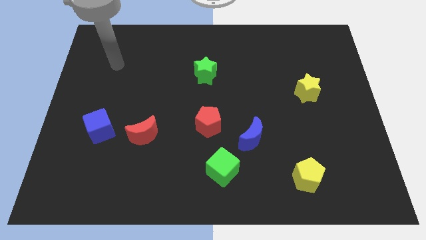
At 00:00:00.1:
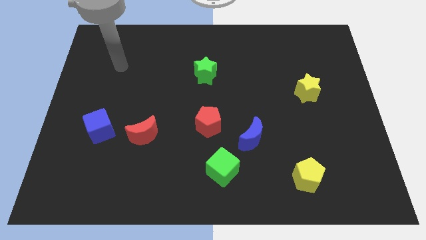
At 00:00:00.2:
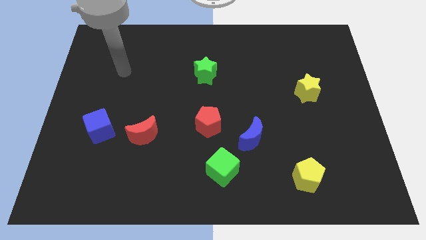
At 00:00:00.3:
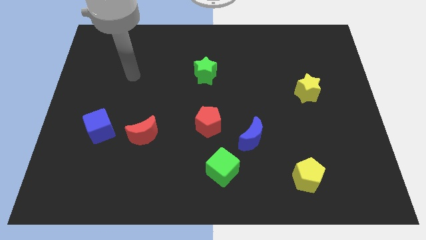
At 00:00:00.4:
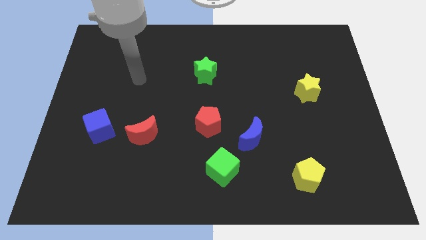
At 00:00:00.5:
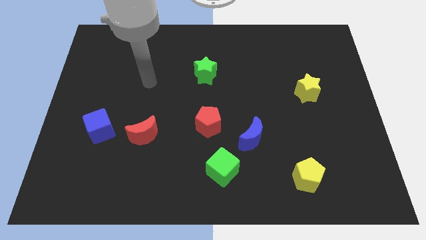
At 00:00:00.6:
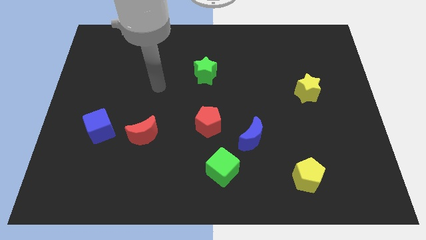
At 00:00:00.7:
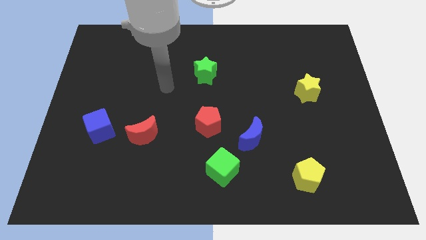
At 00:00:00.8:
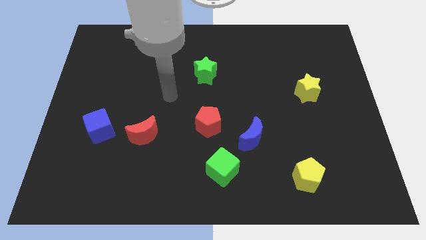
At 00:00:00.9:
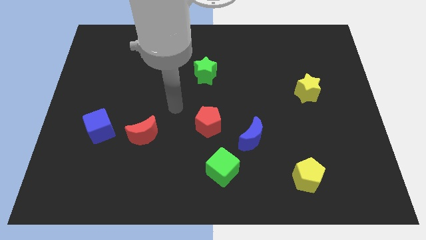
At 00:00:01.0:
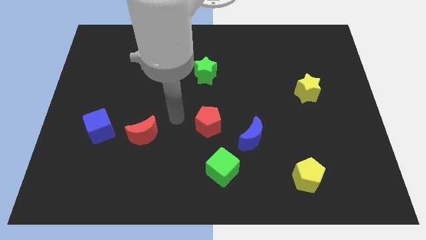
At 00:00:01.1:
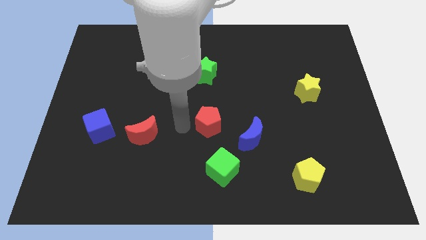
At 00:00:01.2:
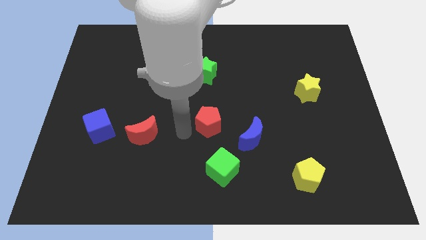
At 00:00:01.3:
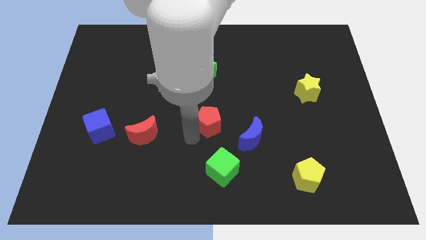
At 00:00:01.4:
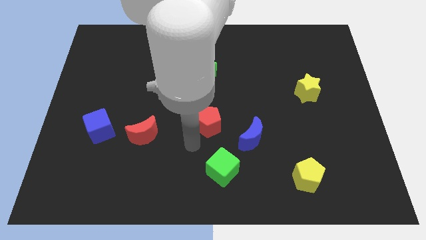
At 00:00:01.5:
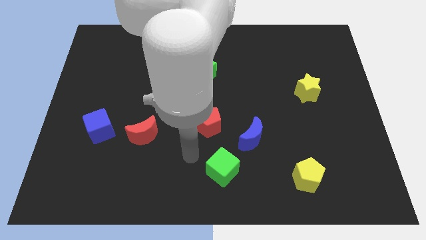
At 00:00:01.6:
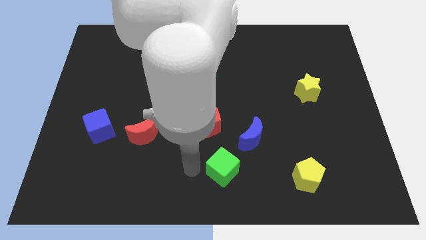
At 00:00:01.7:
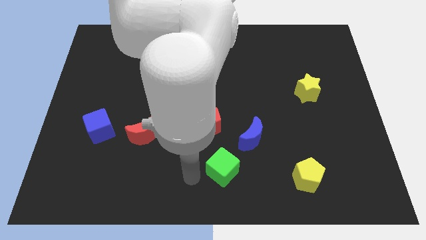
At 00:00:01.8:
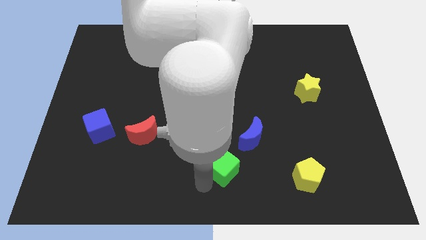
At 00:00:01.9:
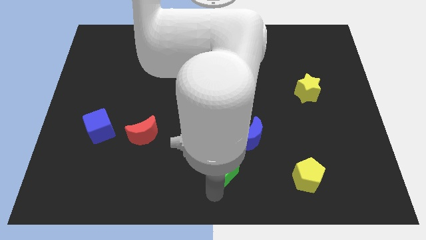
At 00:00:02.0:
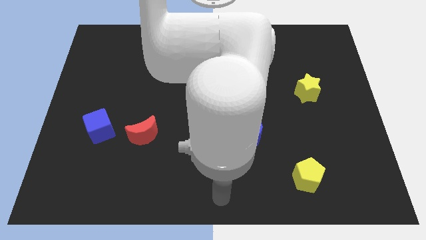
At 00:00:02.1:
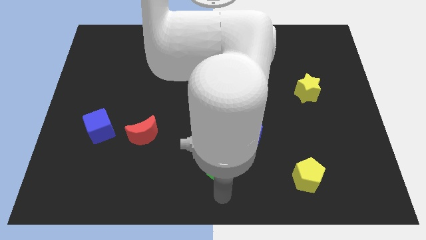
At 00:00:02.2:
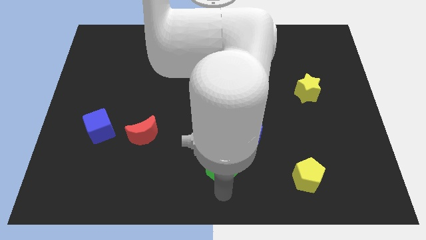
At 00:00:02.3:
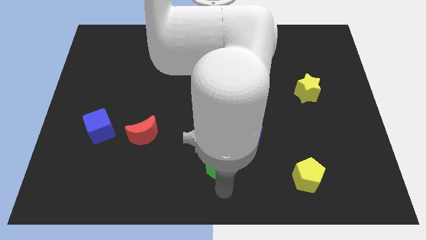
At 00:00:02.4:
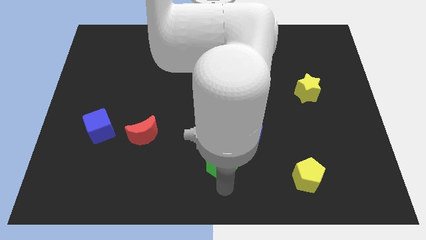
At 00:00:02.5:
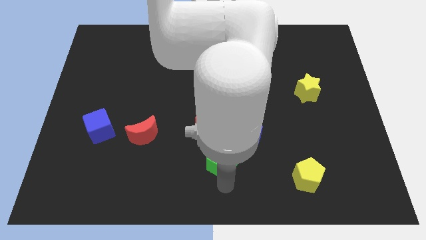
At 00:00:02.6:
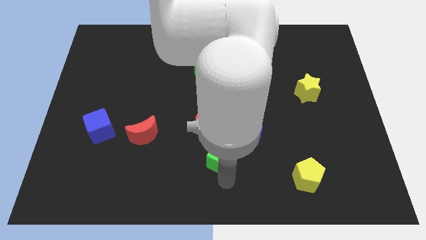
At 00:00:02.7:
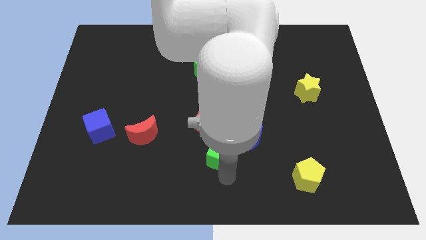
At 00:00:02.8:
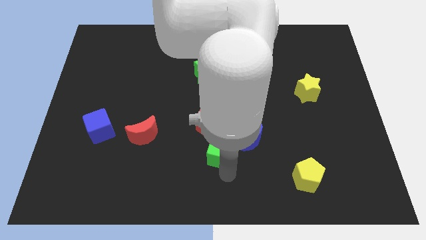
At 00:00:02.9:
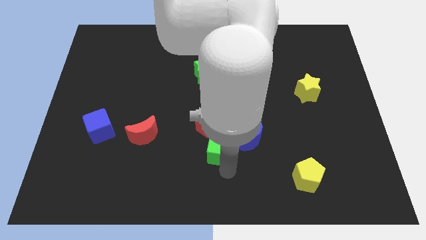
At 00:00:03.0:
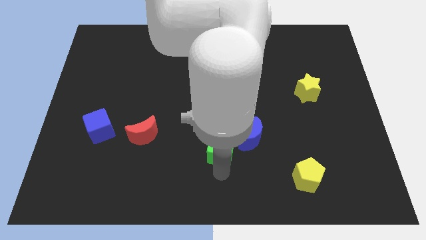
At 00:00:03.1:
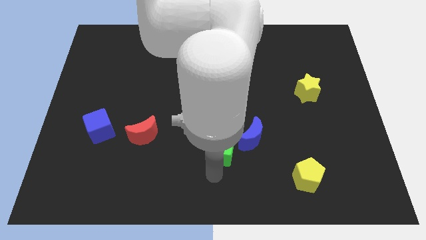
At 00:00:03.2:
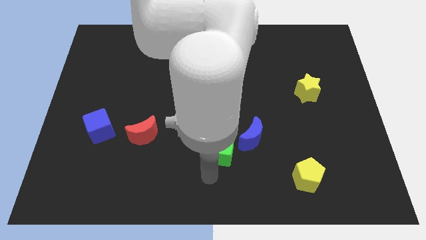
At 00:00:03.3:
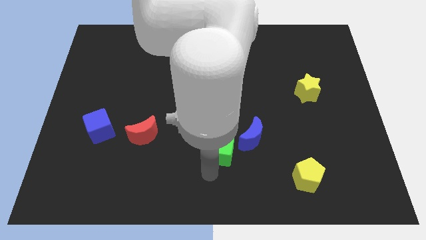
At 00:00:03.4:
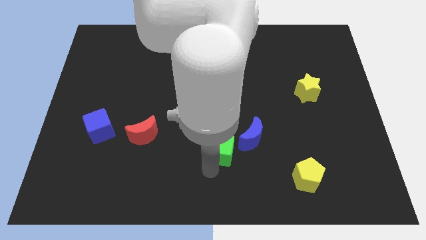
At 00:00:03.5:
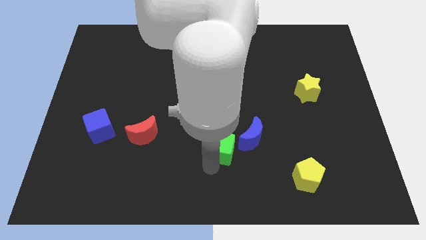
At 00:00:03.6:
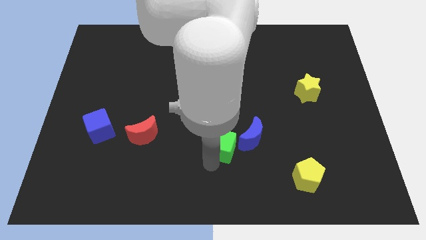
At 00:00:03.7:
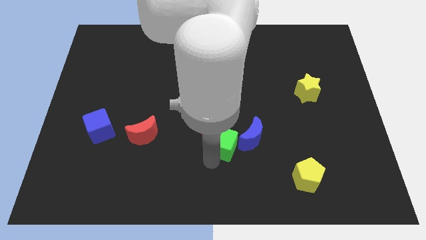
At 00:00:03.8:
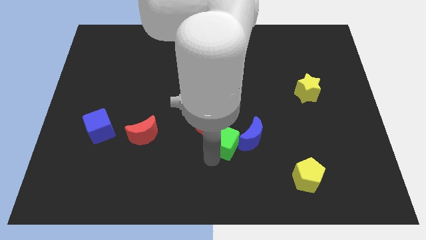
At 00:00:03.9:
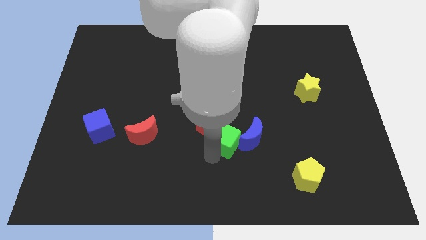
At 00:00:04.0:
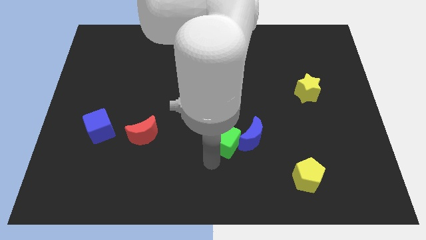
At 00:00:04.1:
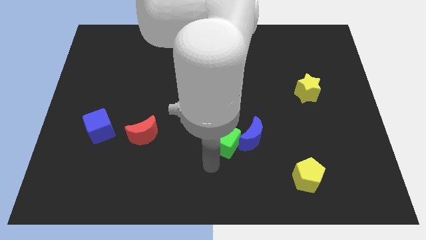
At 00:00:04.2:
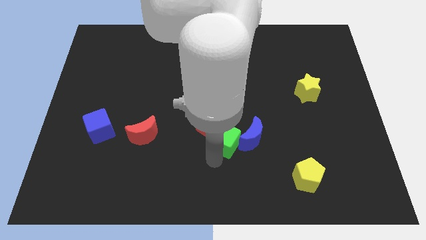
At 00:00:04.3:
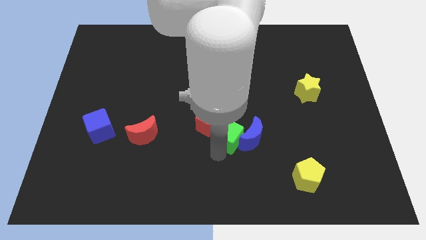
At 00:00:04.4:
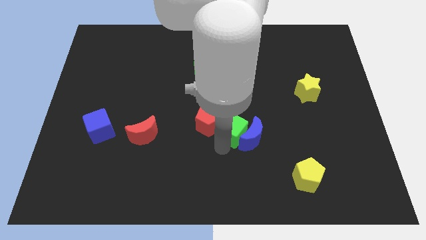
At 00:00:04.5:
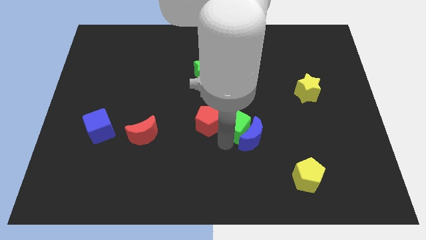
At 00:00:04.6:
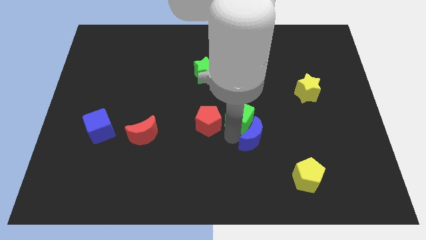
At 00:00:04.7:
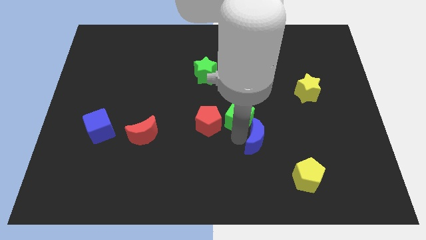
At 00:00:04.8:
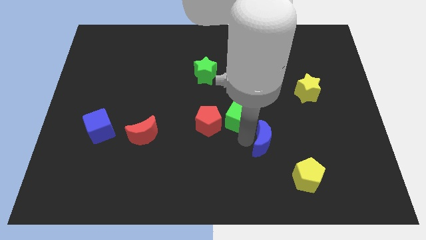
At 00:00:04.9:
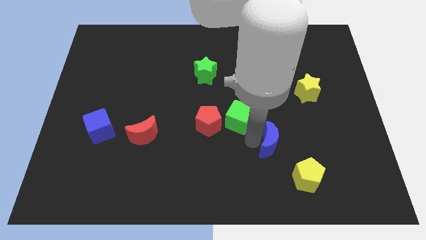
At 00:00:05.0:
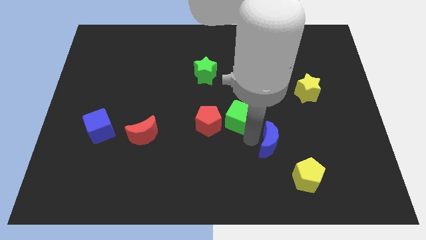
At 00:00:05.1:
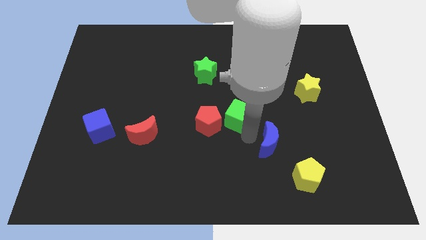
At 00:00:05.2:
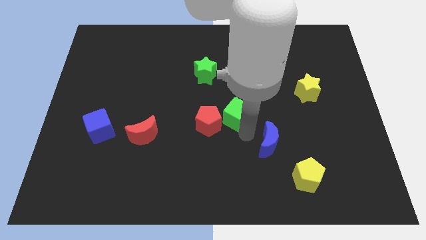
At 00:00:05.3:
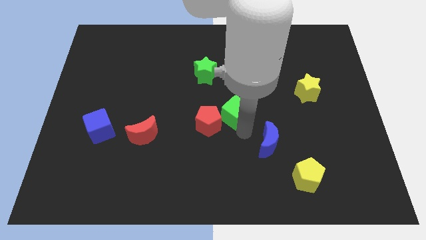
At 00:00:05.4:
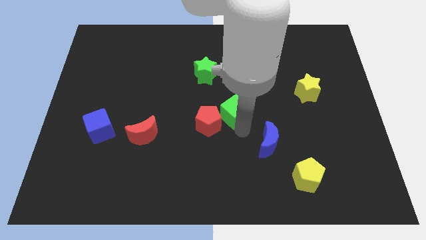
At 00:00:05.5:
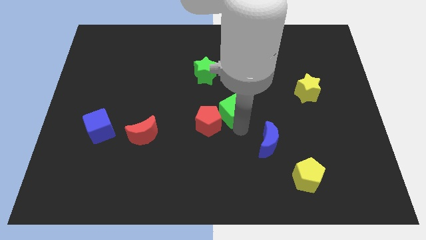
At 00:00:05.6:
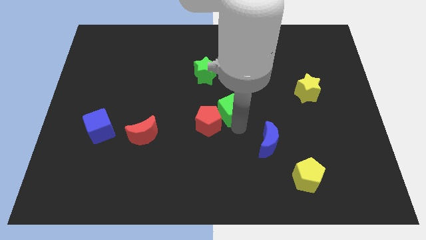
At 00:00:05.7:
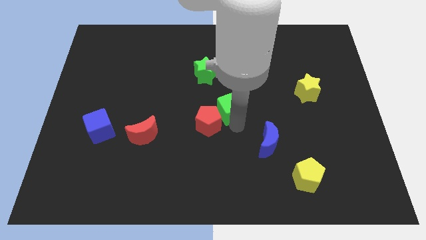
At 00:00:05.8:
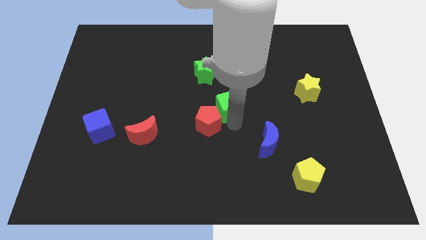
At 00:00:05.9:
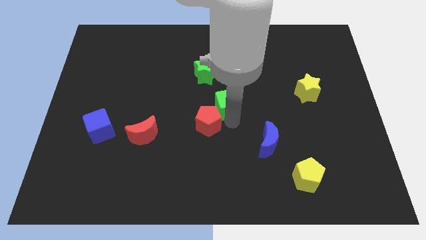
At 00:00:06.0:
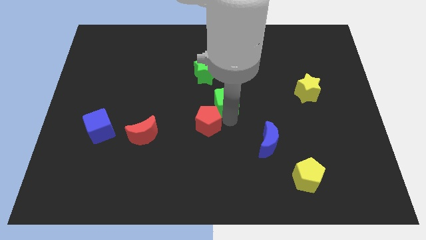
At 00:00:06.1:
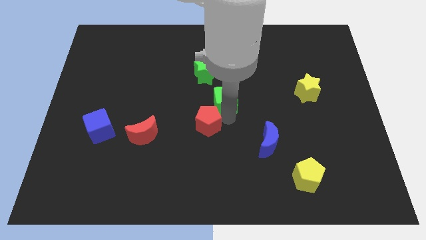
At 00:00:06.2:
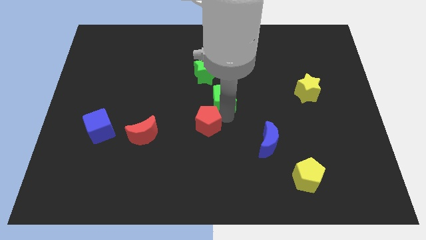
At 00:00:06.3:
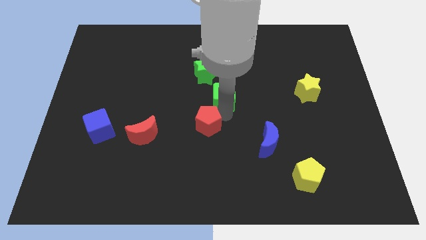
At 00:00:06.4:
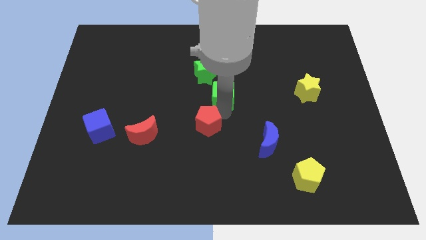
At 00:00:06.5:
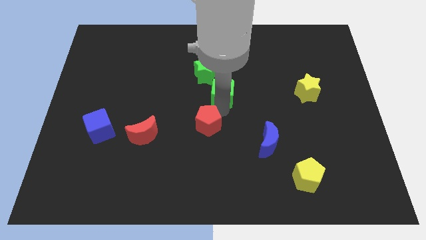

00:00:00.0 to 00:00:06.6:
move the green cube up

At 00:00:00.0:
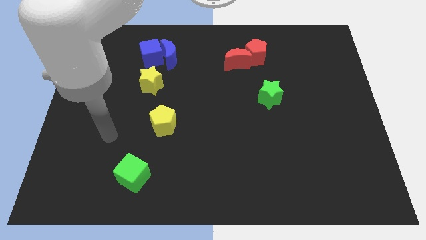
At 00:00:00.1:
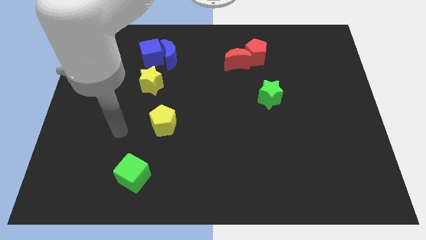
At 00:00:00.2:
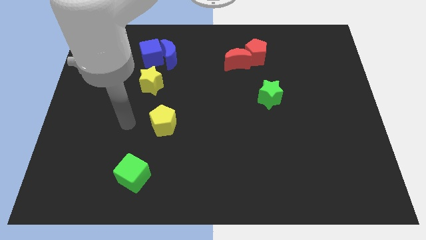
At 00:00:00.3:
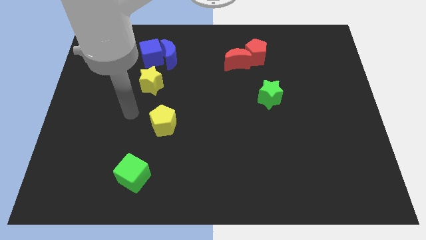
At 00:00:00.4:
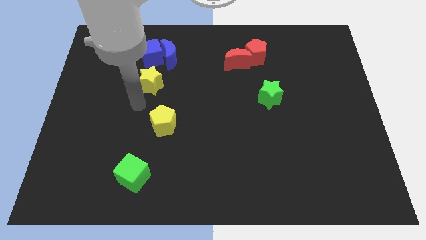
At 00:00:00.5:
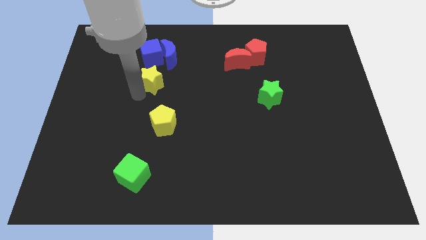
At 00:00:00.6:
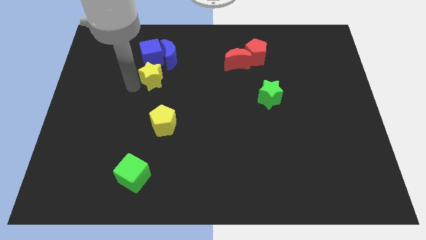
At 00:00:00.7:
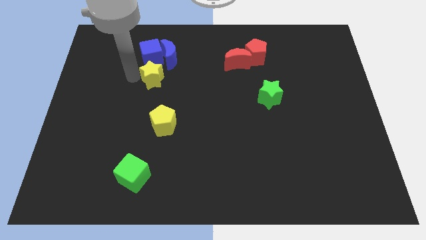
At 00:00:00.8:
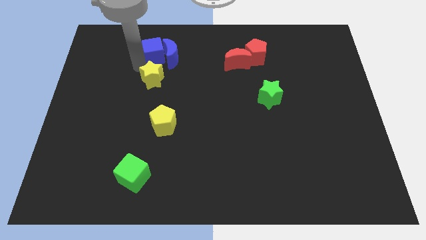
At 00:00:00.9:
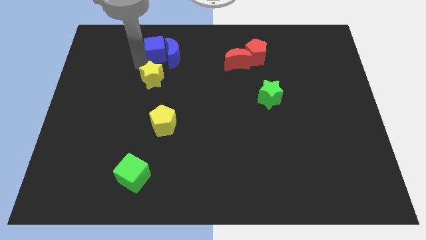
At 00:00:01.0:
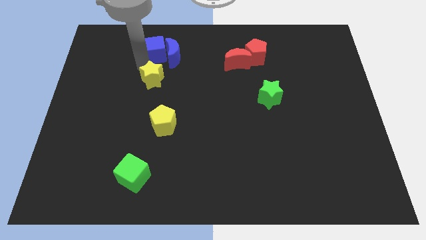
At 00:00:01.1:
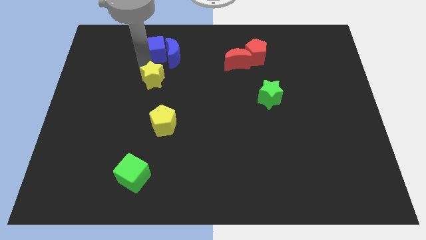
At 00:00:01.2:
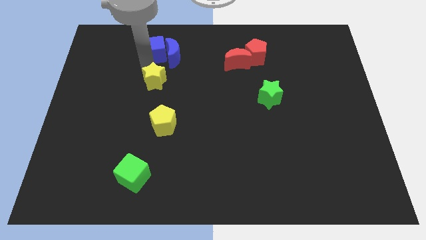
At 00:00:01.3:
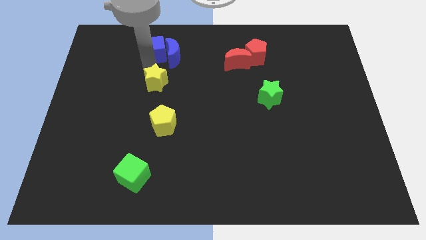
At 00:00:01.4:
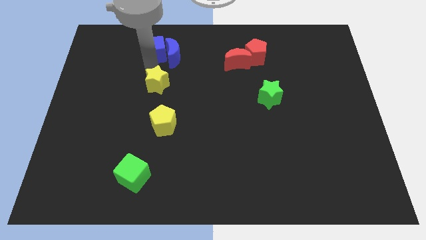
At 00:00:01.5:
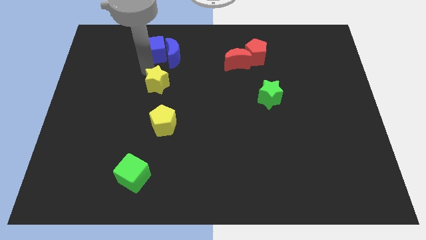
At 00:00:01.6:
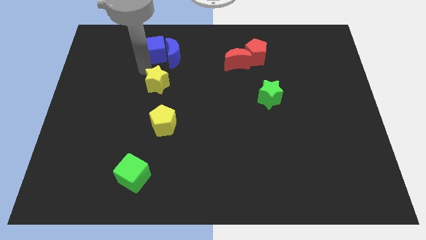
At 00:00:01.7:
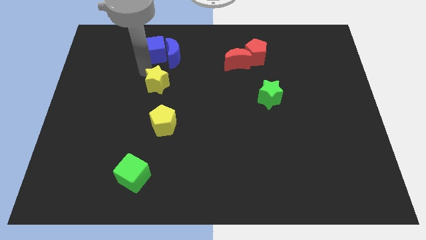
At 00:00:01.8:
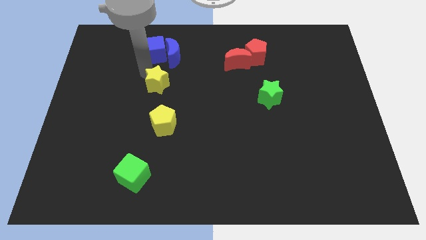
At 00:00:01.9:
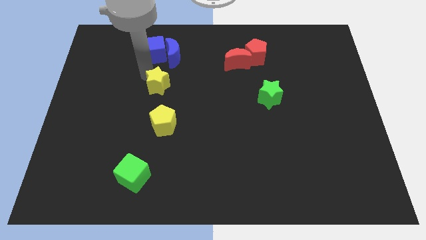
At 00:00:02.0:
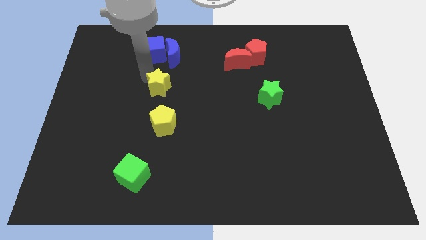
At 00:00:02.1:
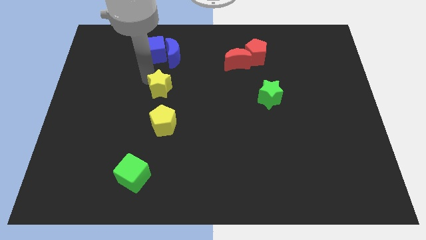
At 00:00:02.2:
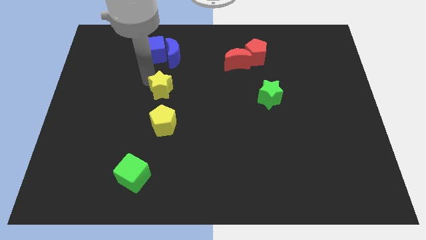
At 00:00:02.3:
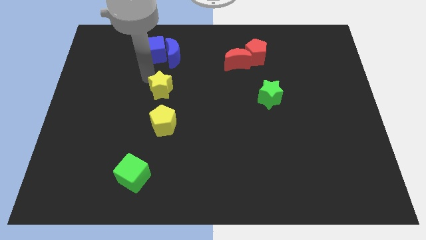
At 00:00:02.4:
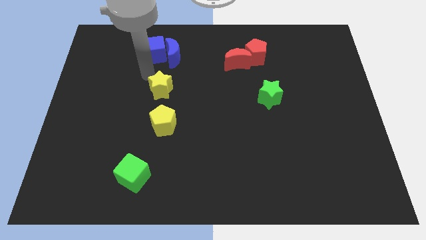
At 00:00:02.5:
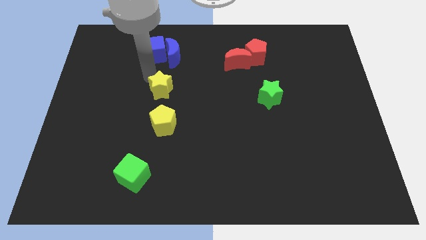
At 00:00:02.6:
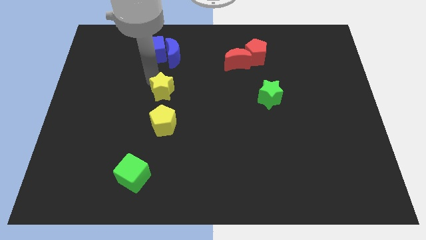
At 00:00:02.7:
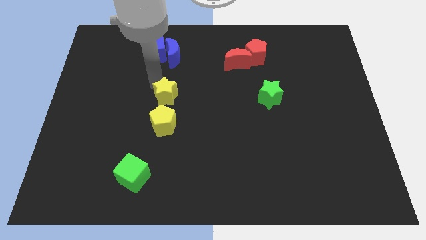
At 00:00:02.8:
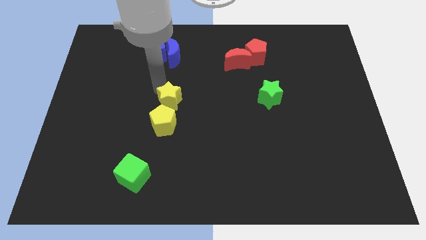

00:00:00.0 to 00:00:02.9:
slightly slide the yellow star down and to the right
